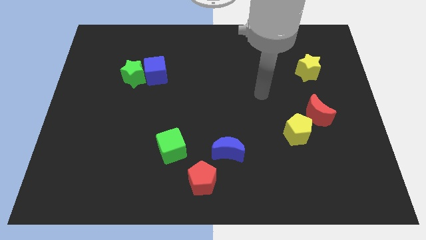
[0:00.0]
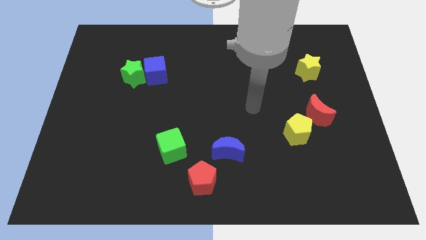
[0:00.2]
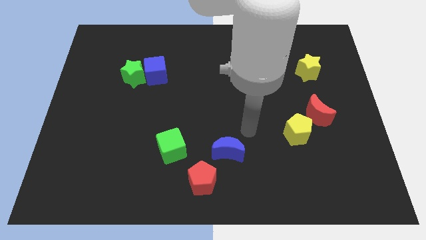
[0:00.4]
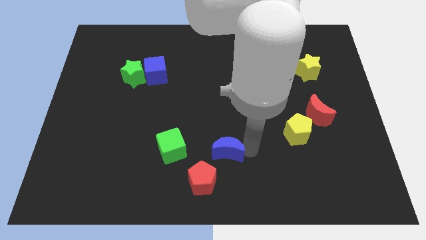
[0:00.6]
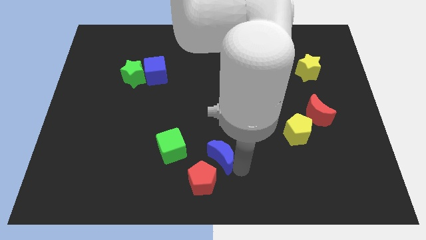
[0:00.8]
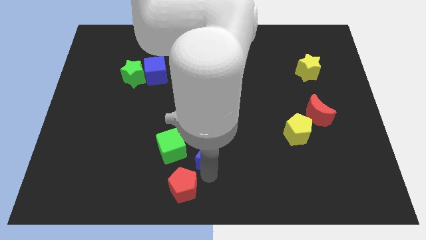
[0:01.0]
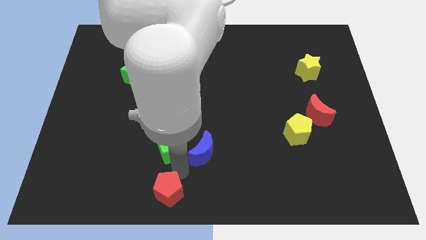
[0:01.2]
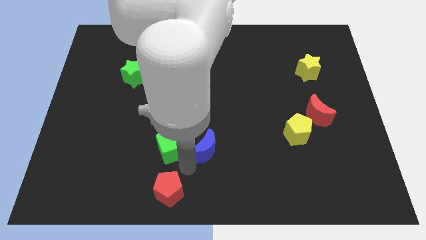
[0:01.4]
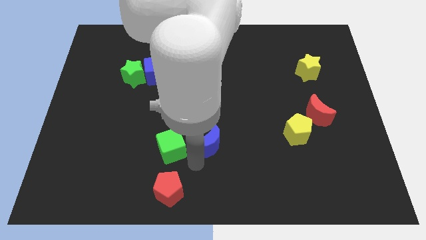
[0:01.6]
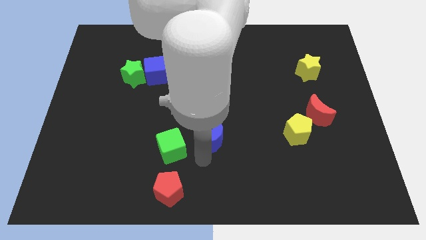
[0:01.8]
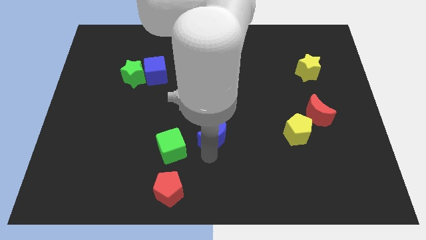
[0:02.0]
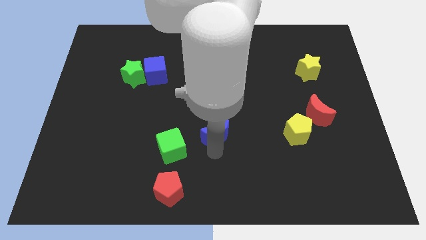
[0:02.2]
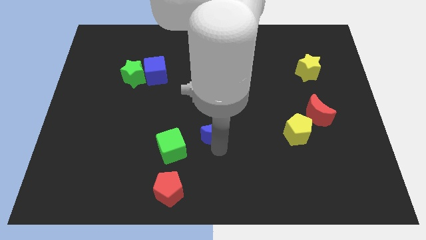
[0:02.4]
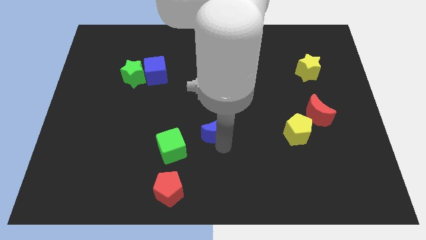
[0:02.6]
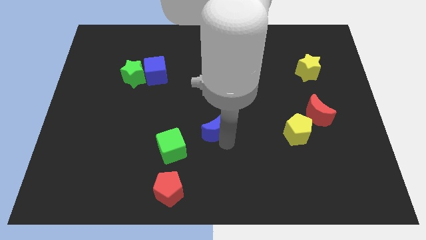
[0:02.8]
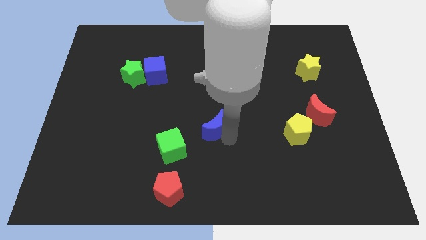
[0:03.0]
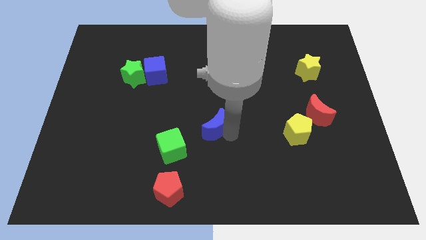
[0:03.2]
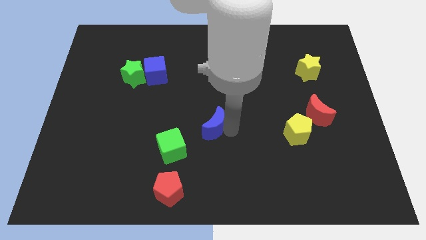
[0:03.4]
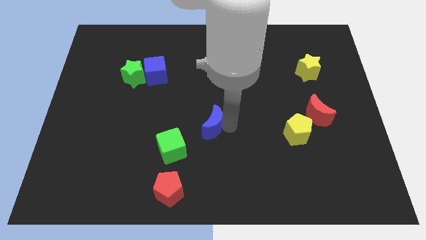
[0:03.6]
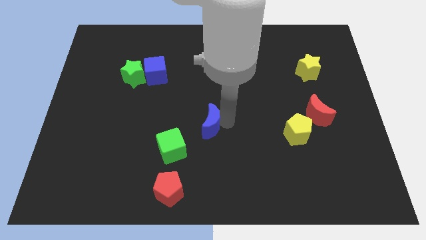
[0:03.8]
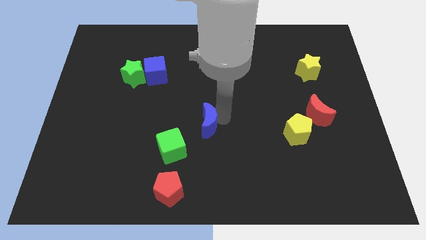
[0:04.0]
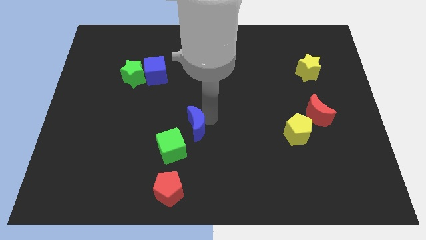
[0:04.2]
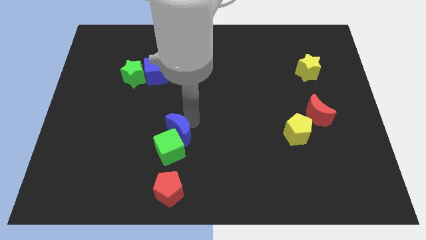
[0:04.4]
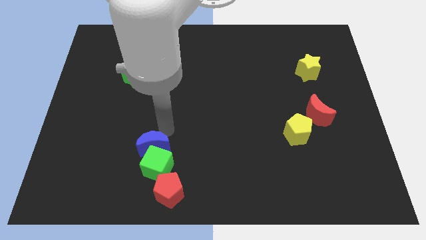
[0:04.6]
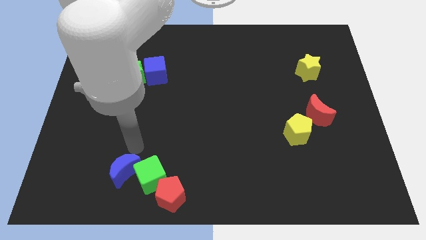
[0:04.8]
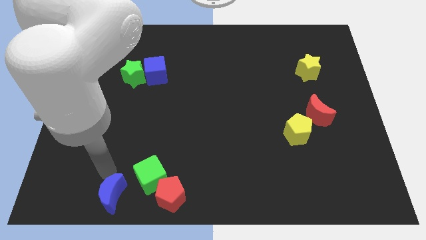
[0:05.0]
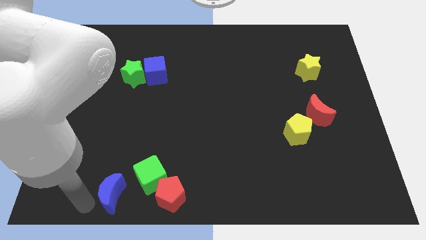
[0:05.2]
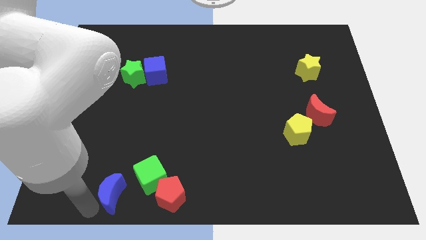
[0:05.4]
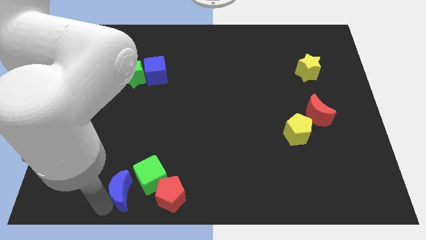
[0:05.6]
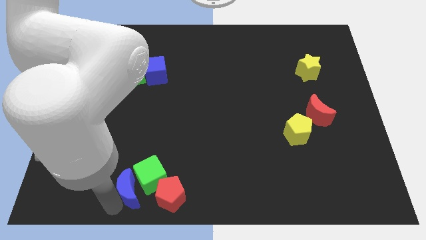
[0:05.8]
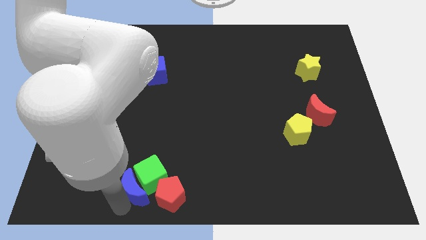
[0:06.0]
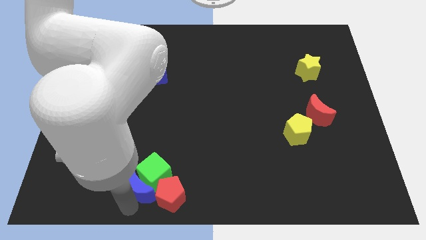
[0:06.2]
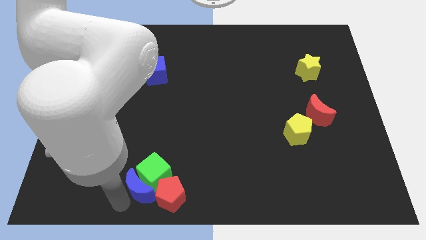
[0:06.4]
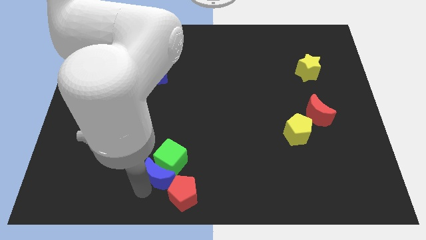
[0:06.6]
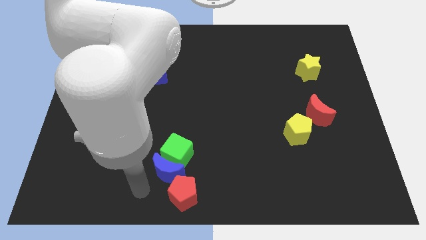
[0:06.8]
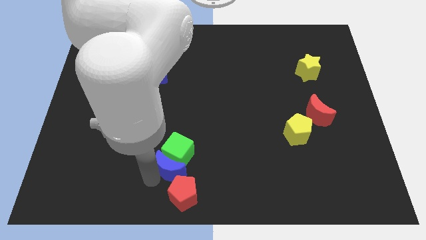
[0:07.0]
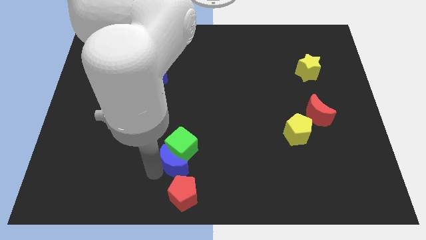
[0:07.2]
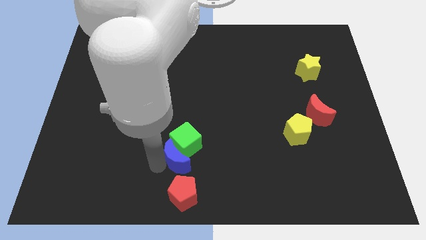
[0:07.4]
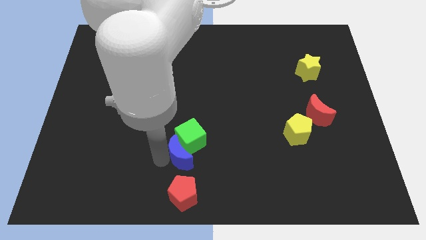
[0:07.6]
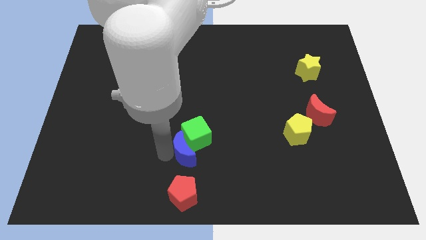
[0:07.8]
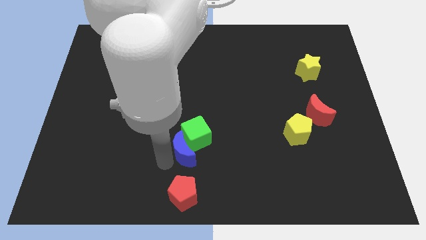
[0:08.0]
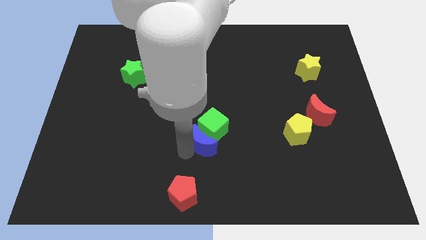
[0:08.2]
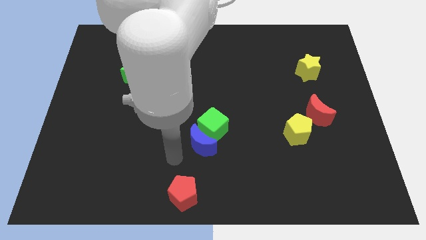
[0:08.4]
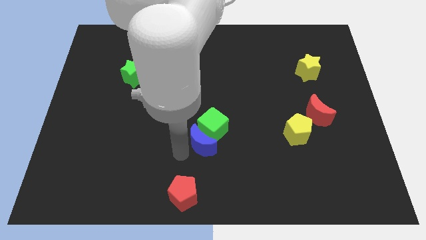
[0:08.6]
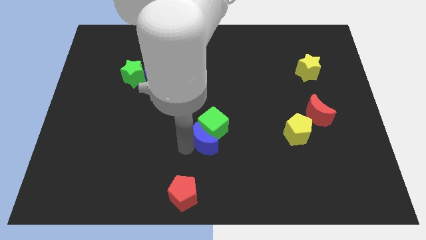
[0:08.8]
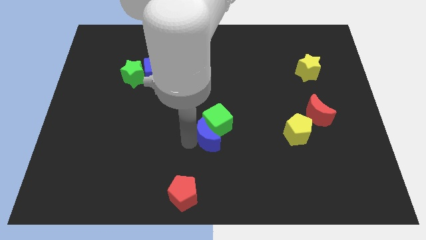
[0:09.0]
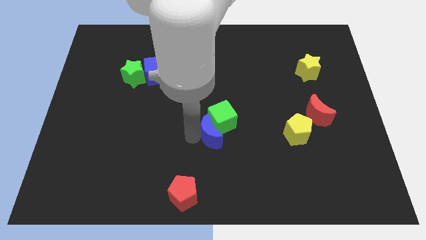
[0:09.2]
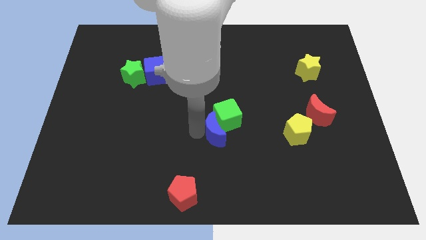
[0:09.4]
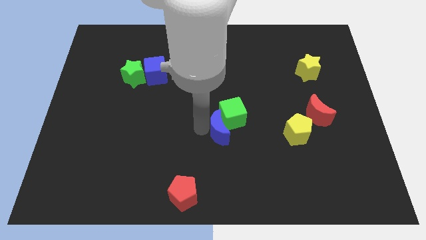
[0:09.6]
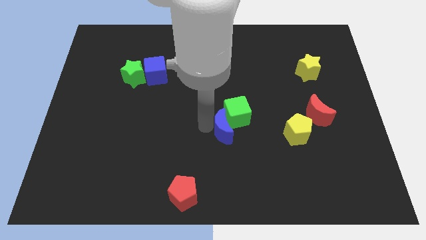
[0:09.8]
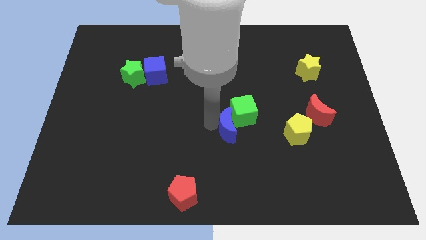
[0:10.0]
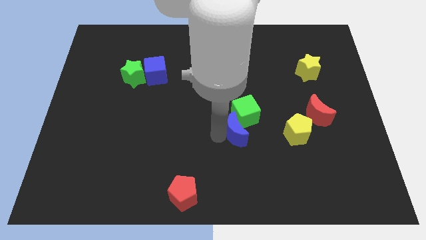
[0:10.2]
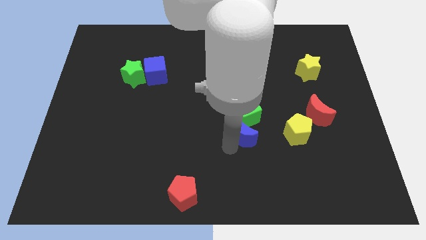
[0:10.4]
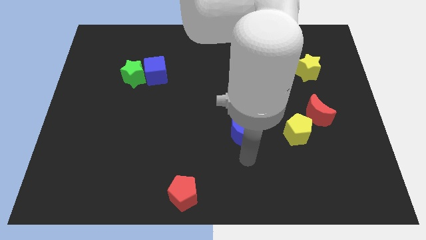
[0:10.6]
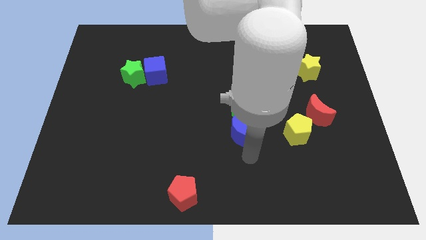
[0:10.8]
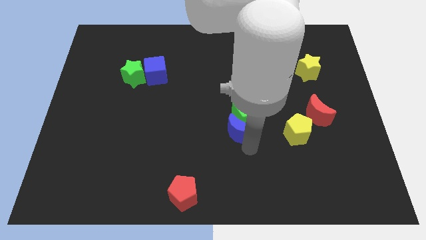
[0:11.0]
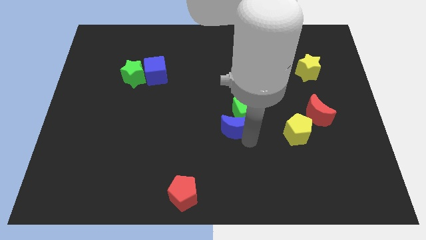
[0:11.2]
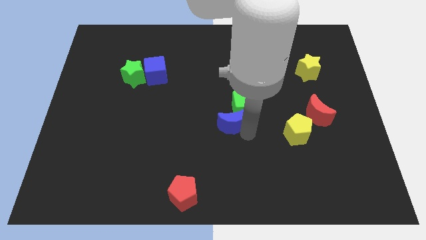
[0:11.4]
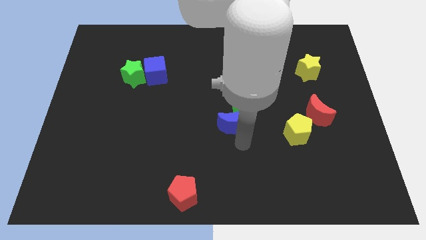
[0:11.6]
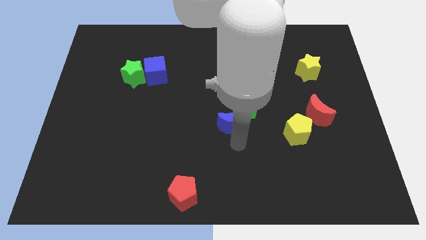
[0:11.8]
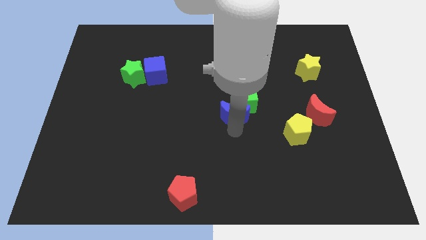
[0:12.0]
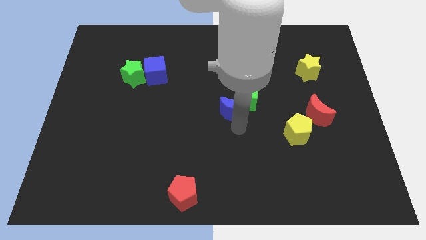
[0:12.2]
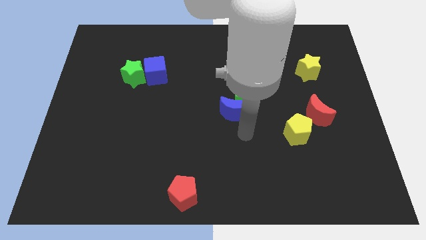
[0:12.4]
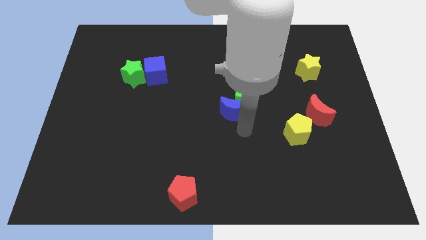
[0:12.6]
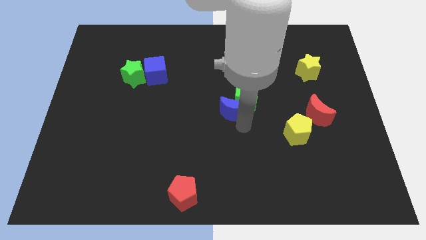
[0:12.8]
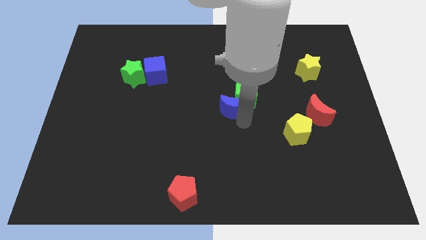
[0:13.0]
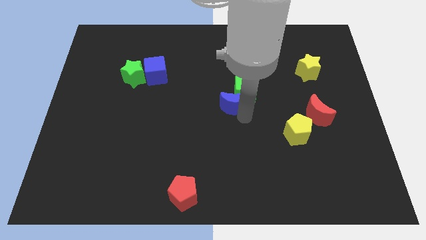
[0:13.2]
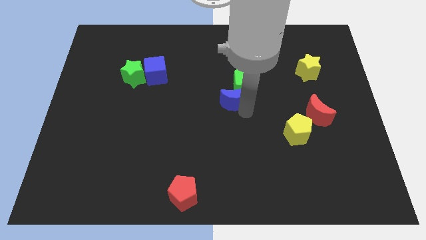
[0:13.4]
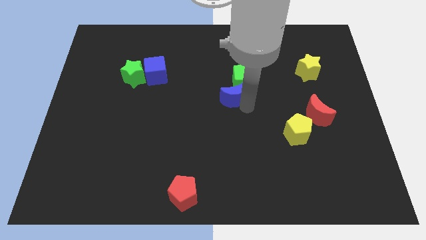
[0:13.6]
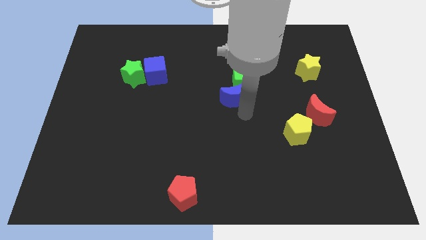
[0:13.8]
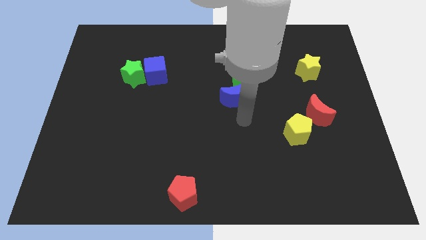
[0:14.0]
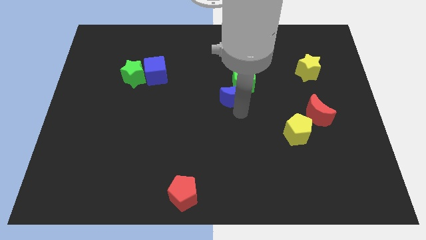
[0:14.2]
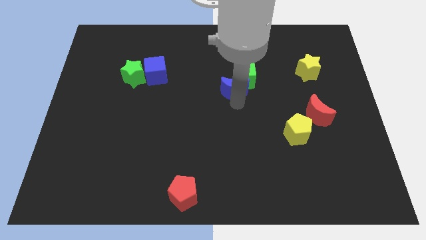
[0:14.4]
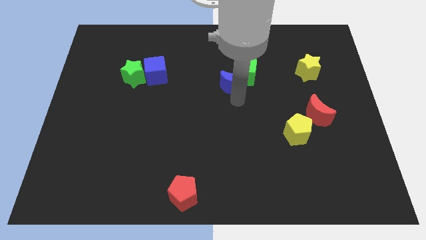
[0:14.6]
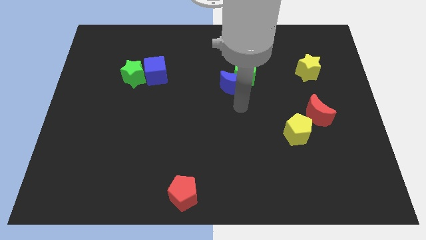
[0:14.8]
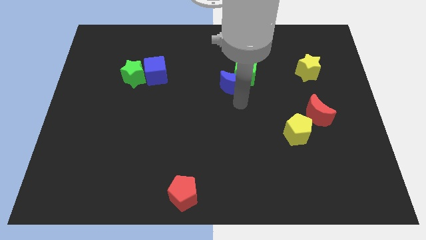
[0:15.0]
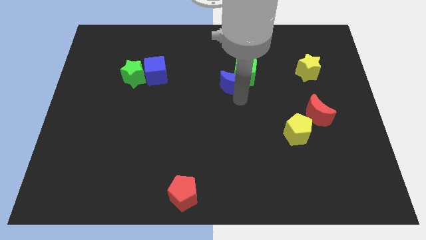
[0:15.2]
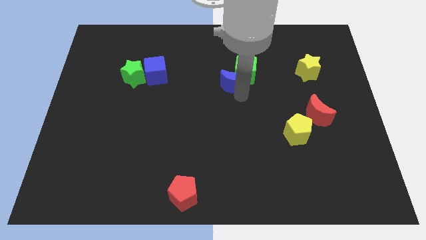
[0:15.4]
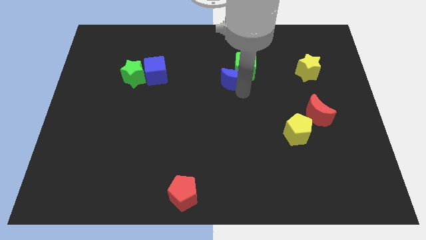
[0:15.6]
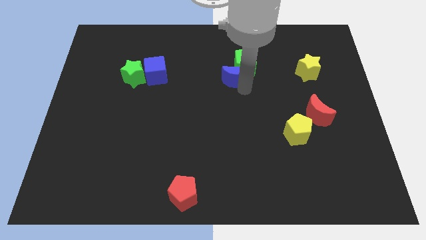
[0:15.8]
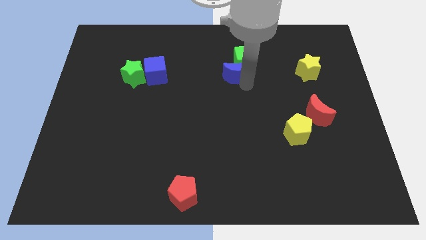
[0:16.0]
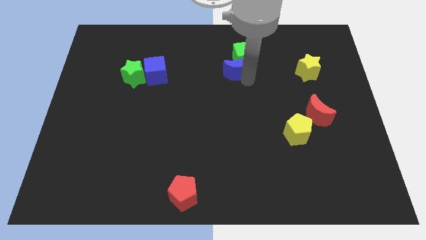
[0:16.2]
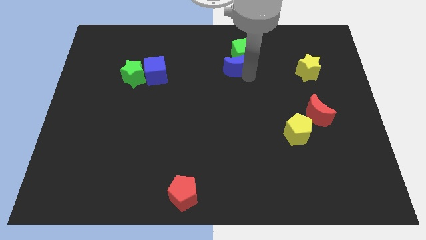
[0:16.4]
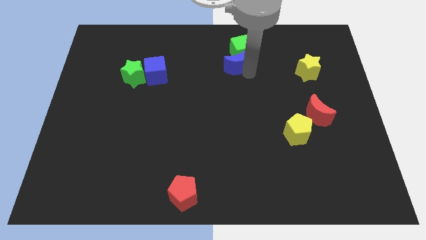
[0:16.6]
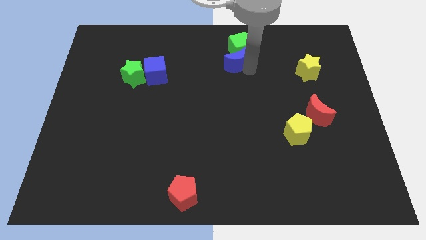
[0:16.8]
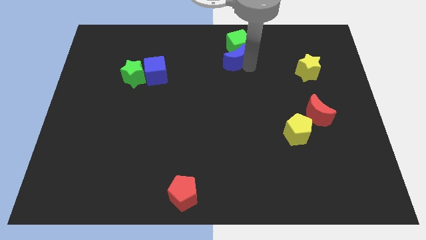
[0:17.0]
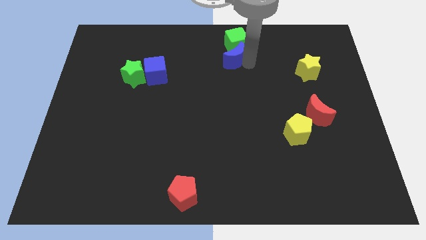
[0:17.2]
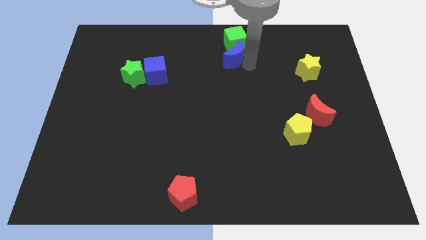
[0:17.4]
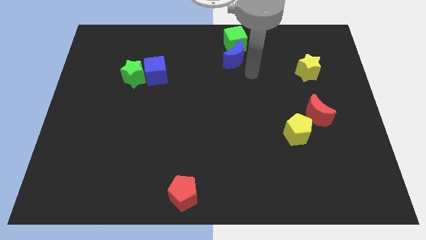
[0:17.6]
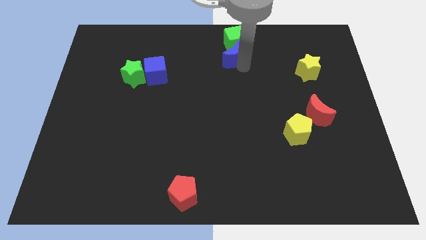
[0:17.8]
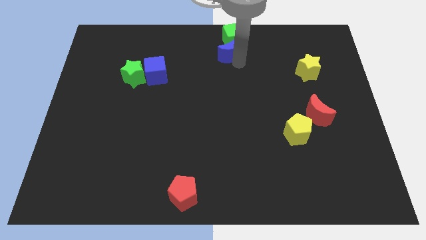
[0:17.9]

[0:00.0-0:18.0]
slide the blue moon to the towards your base
